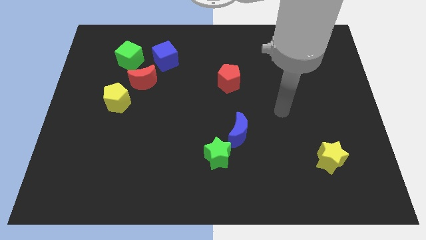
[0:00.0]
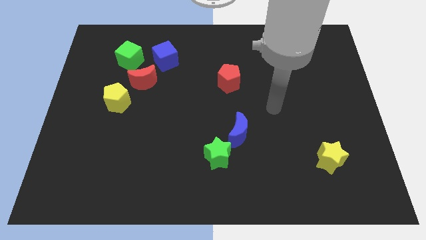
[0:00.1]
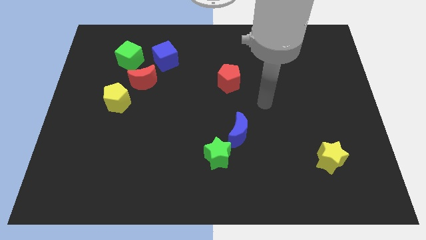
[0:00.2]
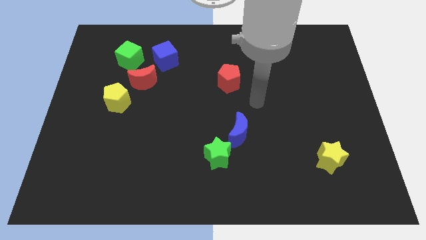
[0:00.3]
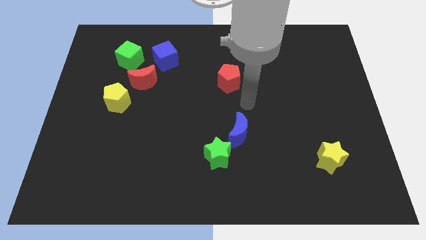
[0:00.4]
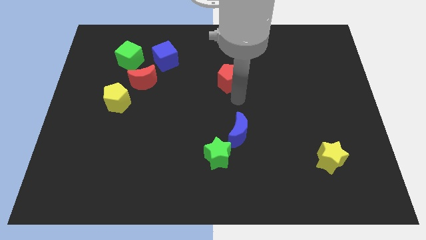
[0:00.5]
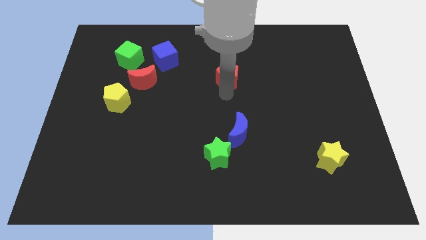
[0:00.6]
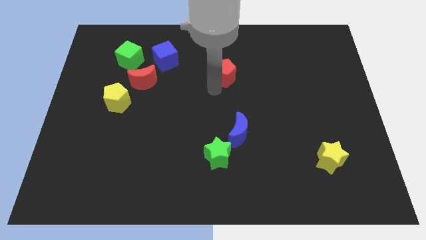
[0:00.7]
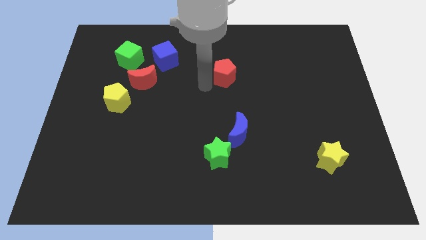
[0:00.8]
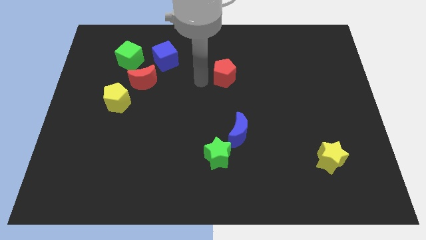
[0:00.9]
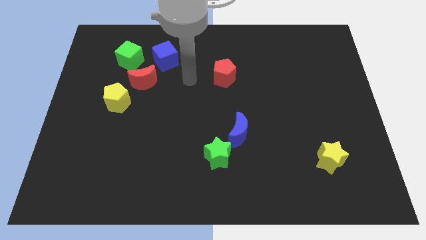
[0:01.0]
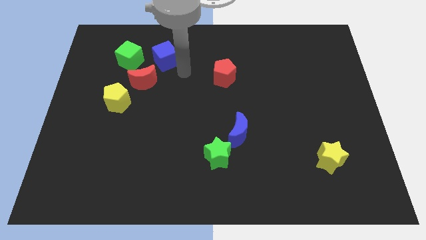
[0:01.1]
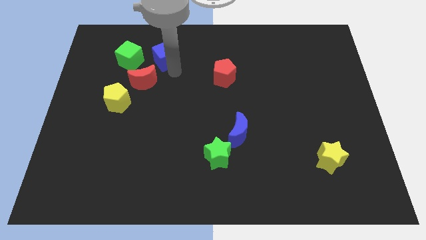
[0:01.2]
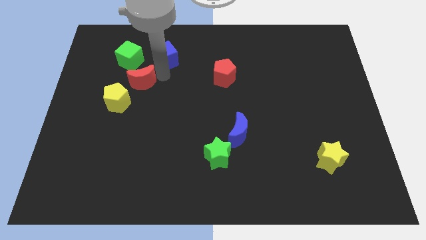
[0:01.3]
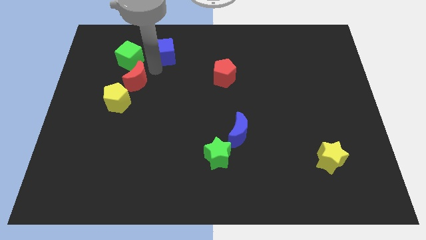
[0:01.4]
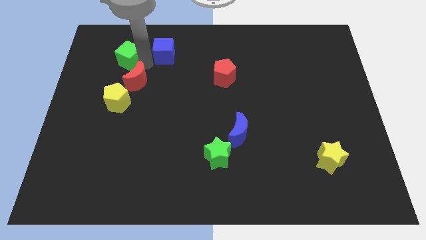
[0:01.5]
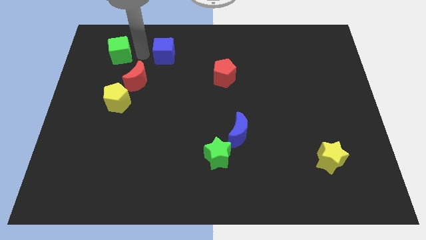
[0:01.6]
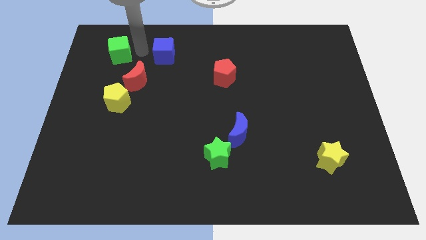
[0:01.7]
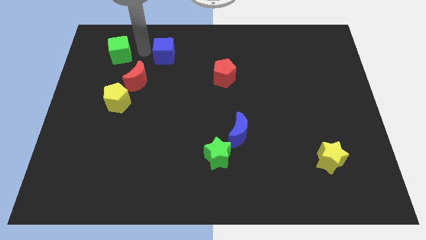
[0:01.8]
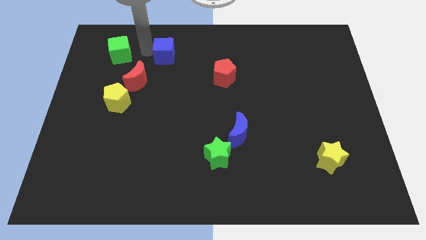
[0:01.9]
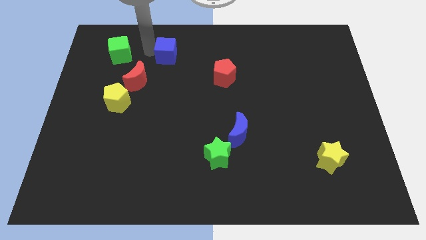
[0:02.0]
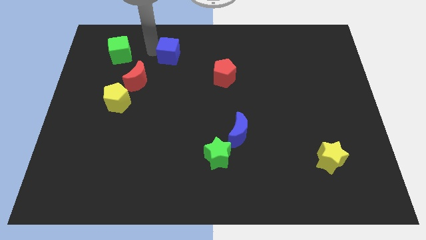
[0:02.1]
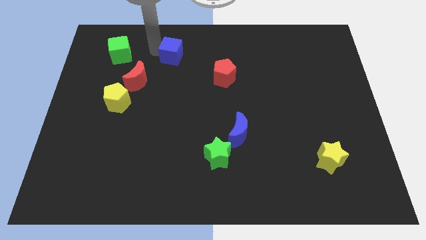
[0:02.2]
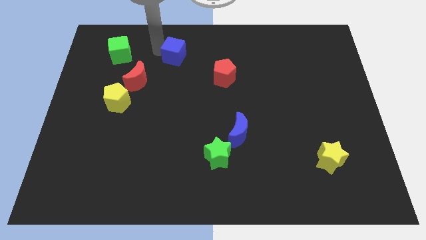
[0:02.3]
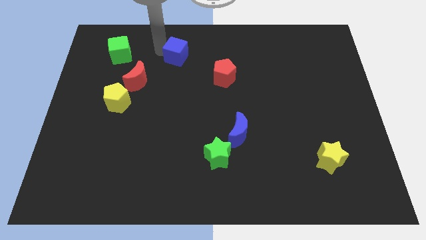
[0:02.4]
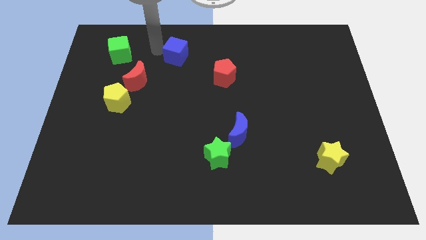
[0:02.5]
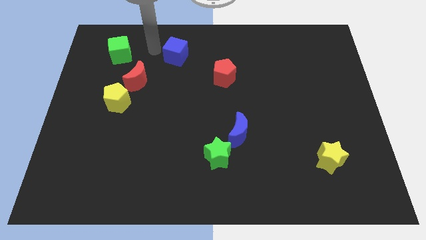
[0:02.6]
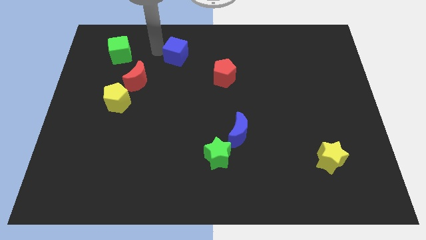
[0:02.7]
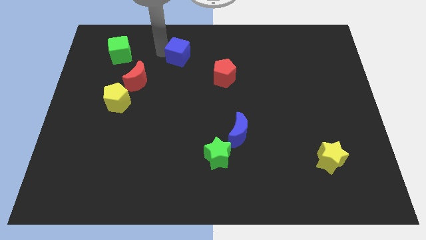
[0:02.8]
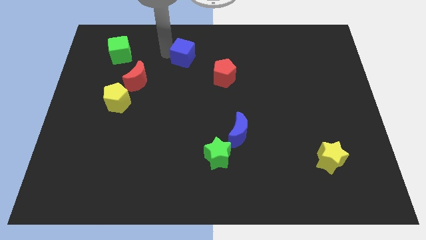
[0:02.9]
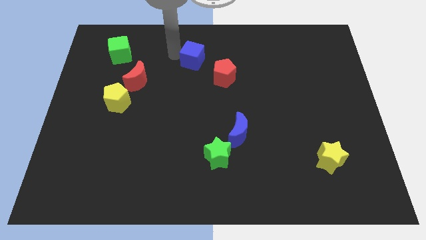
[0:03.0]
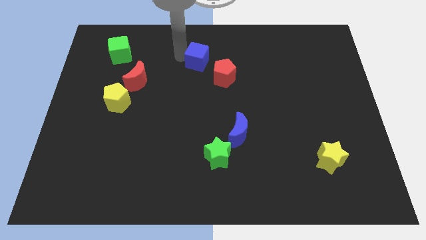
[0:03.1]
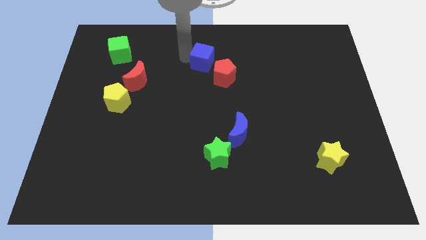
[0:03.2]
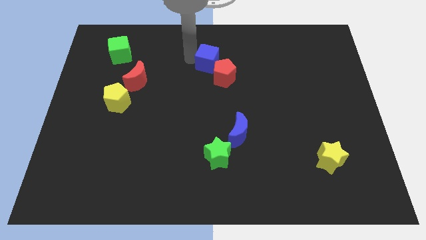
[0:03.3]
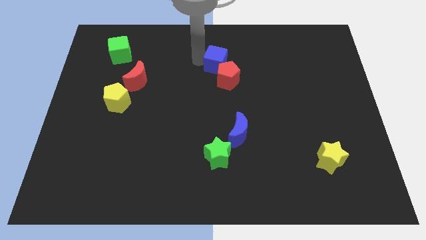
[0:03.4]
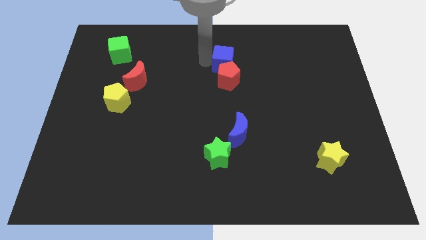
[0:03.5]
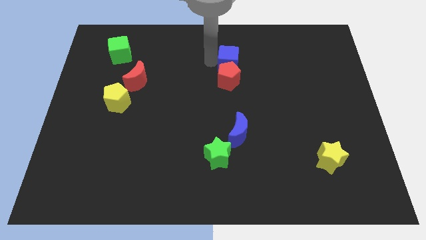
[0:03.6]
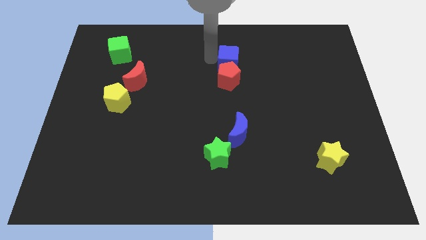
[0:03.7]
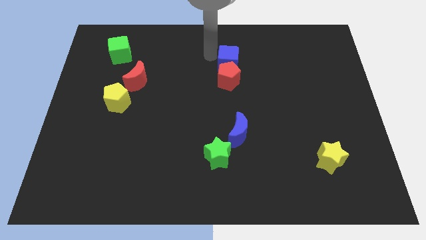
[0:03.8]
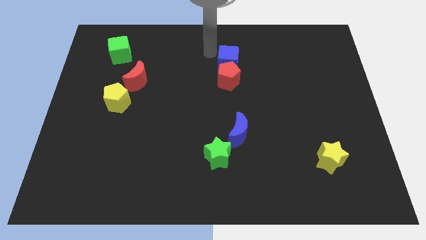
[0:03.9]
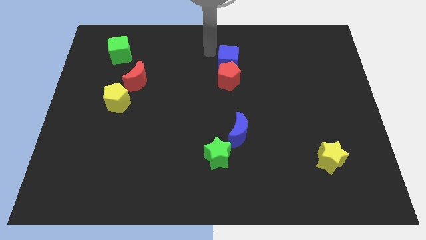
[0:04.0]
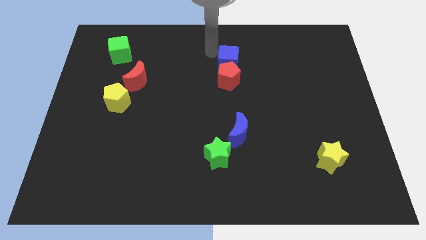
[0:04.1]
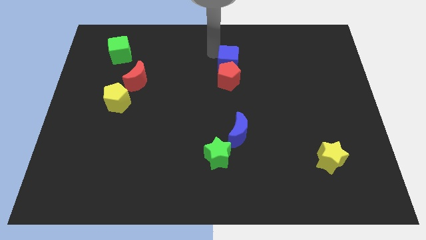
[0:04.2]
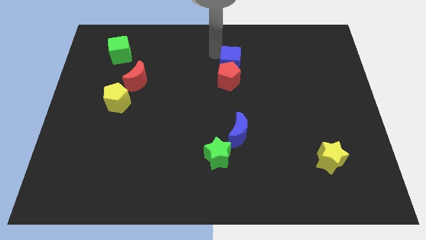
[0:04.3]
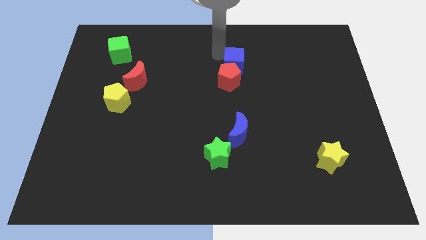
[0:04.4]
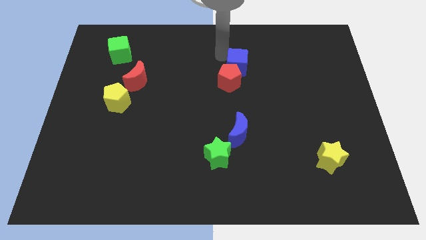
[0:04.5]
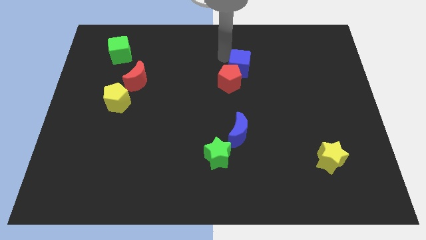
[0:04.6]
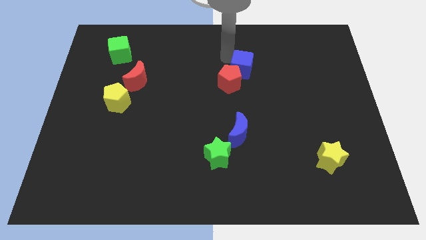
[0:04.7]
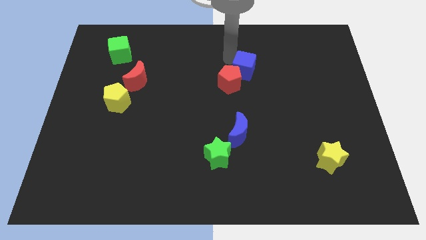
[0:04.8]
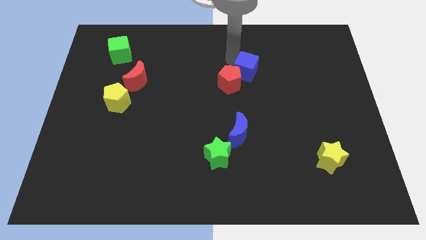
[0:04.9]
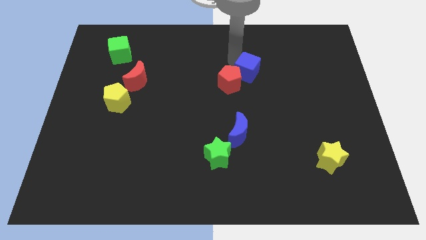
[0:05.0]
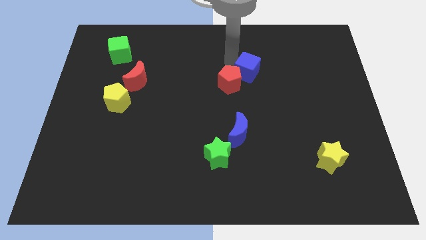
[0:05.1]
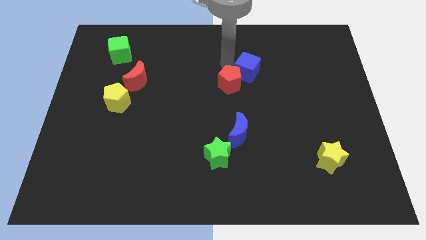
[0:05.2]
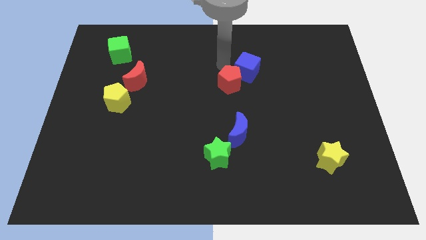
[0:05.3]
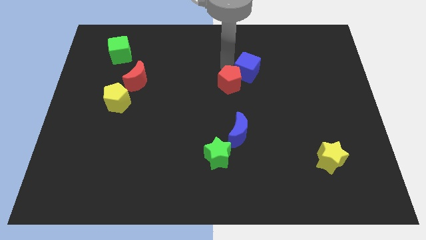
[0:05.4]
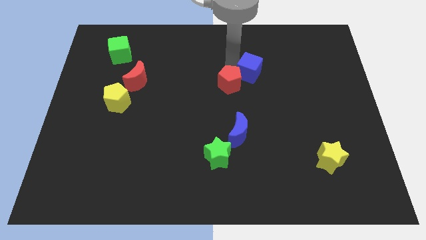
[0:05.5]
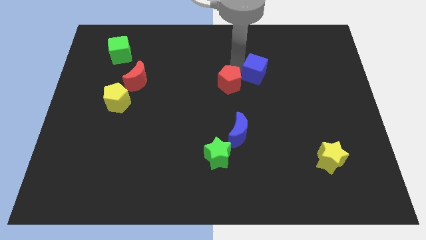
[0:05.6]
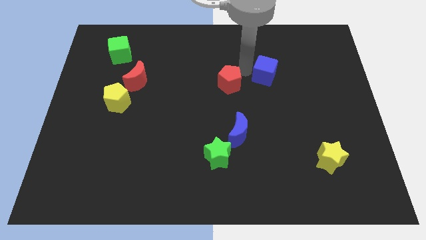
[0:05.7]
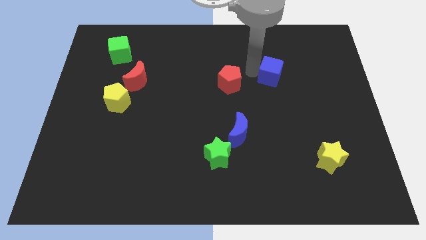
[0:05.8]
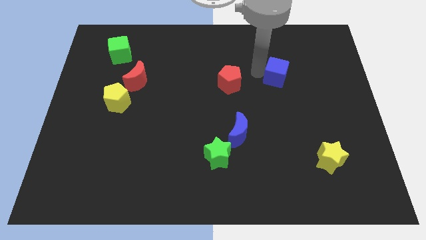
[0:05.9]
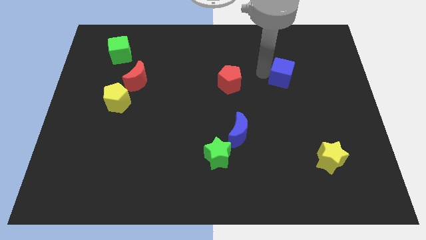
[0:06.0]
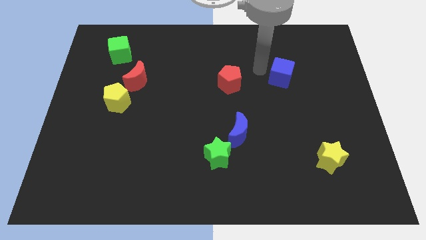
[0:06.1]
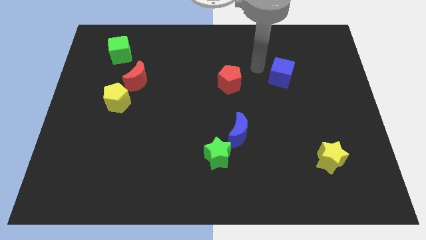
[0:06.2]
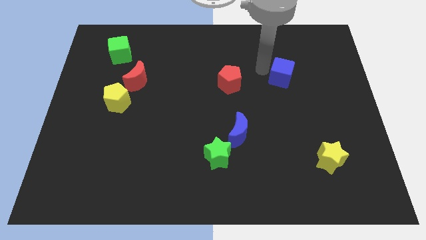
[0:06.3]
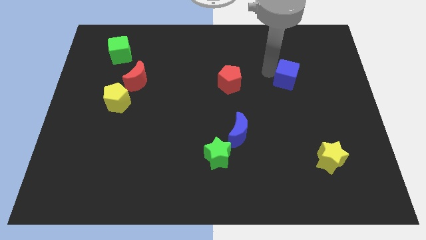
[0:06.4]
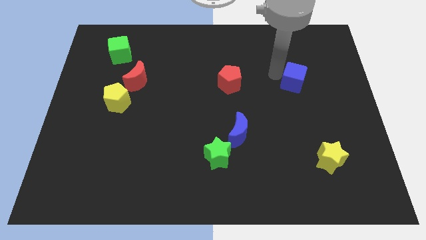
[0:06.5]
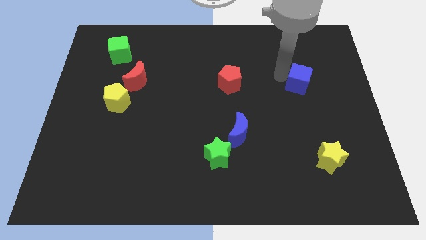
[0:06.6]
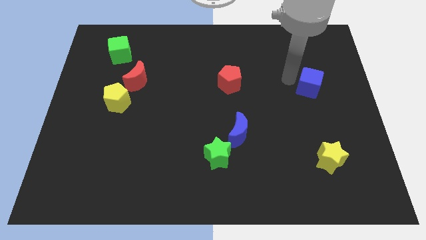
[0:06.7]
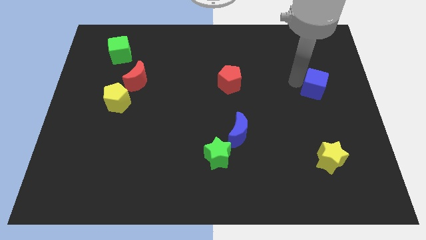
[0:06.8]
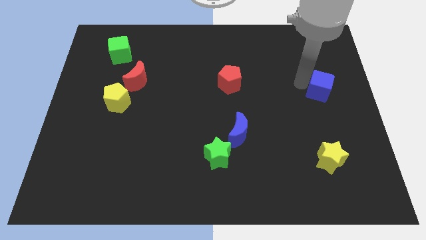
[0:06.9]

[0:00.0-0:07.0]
put the blue cube to the right side
